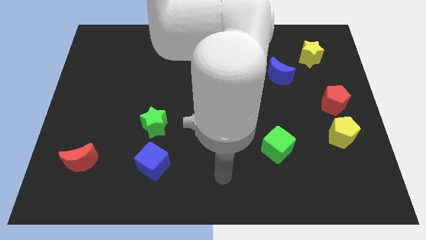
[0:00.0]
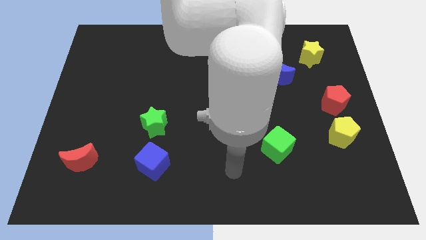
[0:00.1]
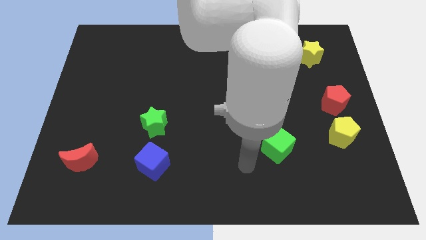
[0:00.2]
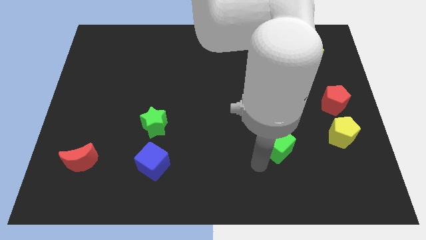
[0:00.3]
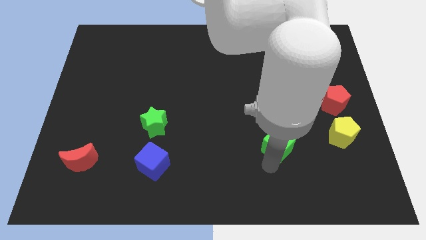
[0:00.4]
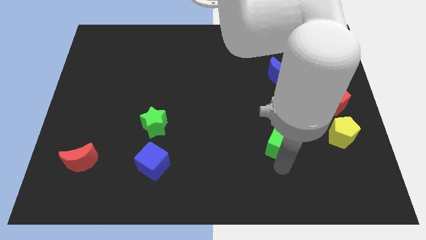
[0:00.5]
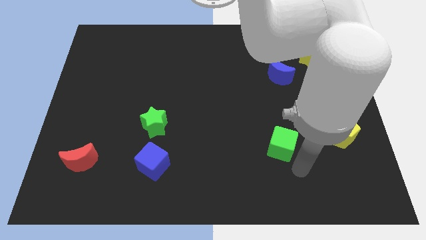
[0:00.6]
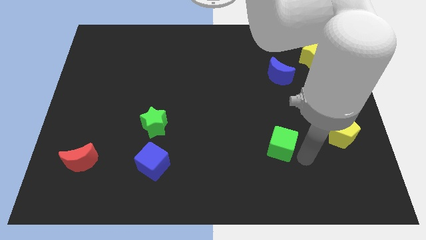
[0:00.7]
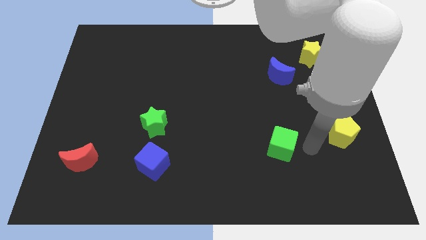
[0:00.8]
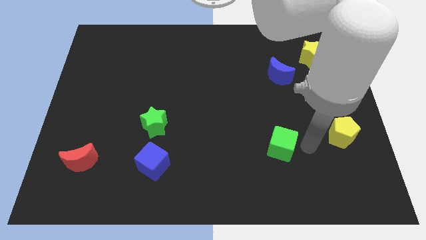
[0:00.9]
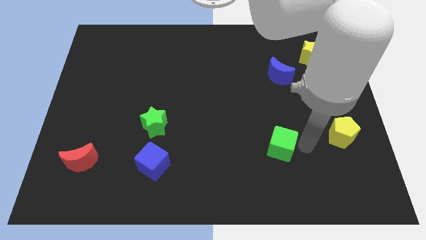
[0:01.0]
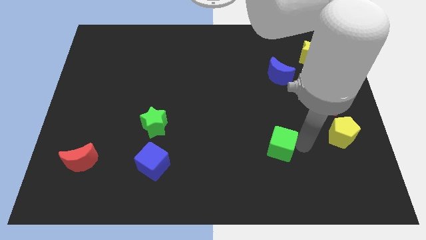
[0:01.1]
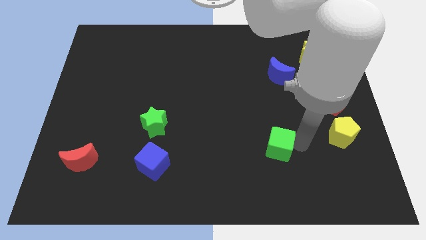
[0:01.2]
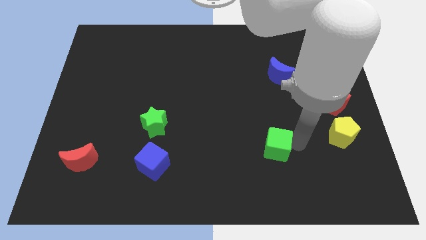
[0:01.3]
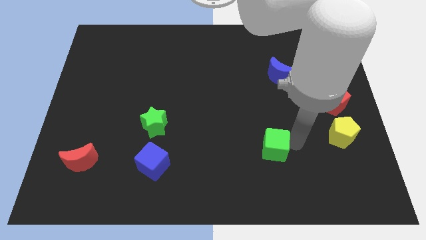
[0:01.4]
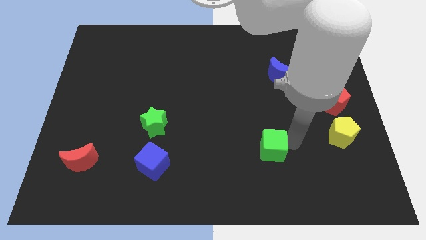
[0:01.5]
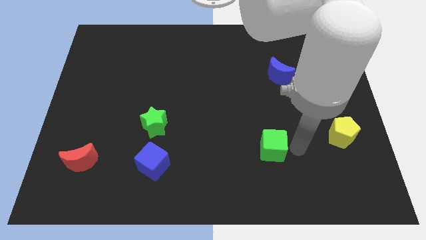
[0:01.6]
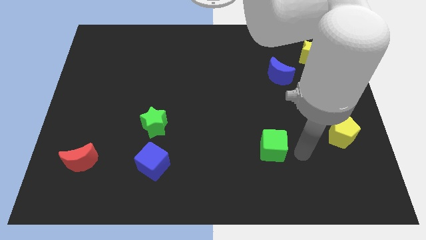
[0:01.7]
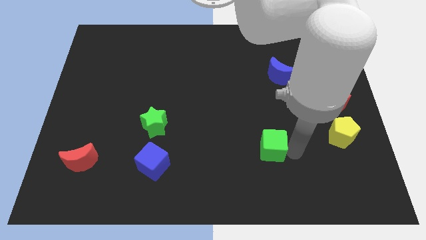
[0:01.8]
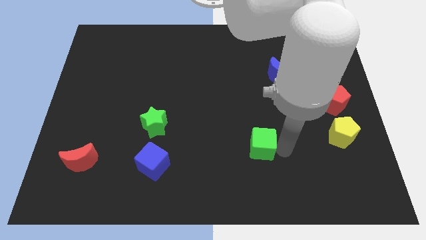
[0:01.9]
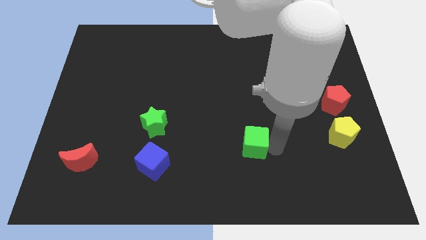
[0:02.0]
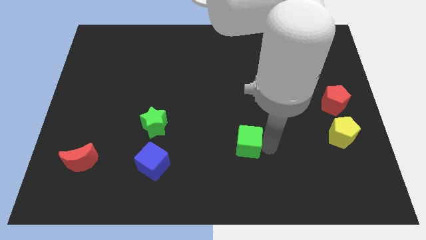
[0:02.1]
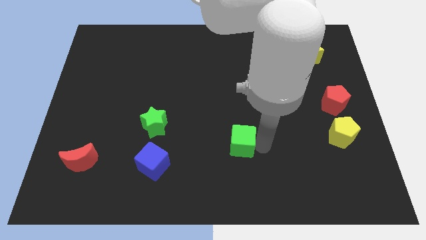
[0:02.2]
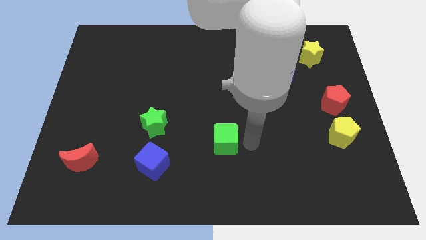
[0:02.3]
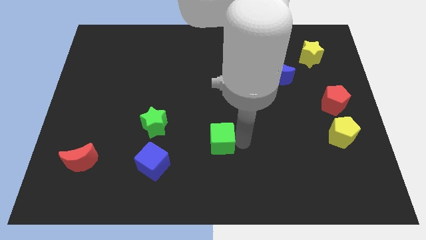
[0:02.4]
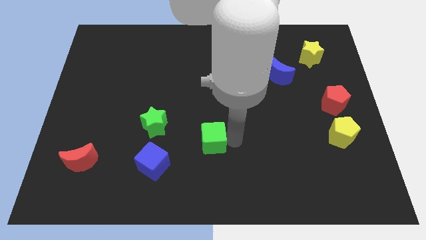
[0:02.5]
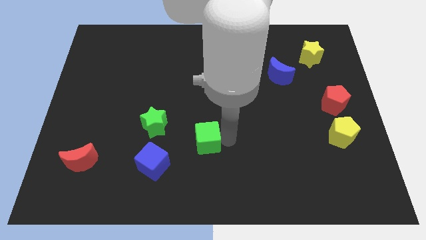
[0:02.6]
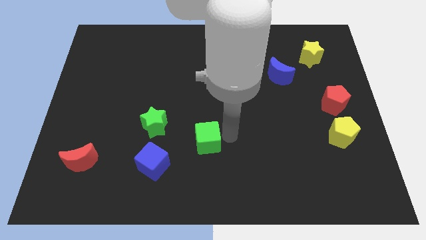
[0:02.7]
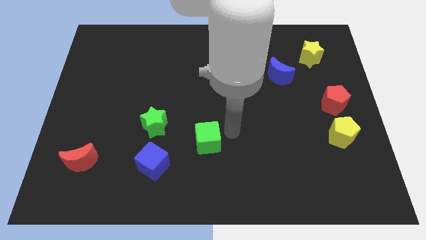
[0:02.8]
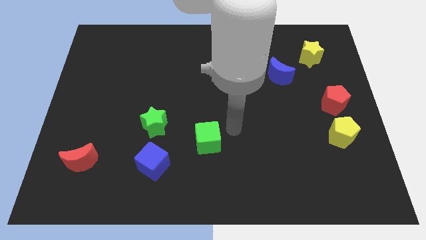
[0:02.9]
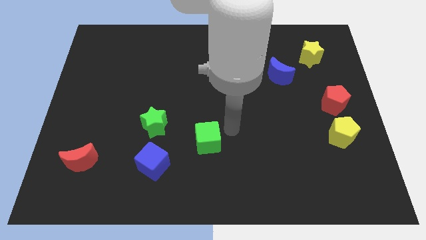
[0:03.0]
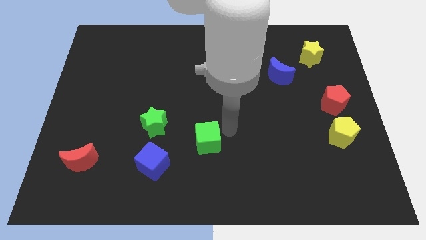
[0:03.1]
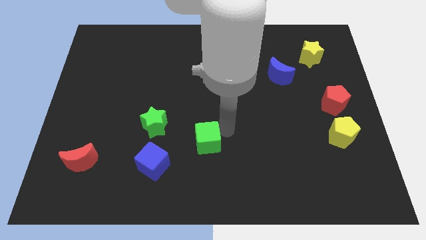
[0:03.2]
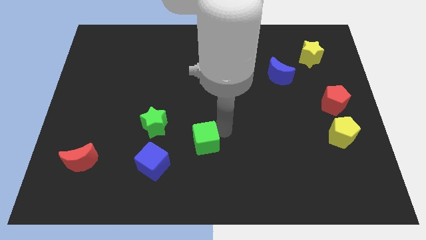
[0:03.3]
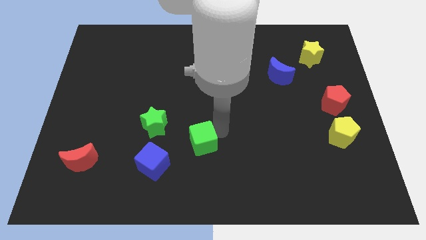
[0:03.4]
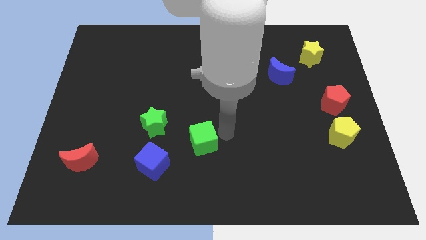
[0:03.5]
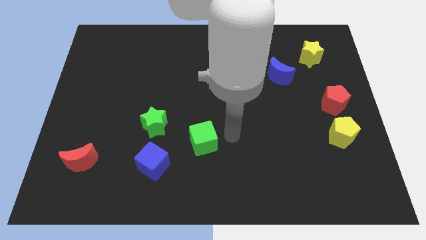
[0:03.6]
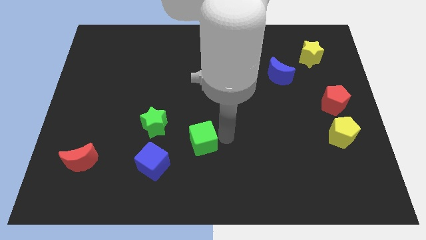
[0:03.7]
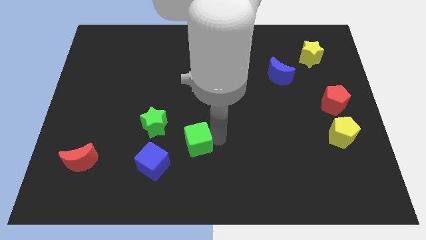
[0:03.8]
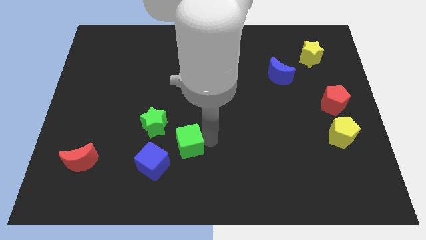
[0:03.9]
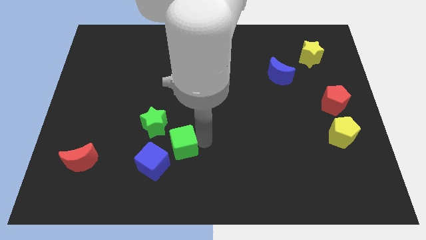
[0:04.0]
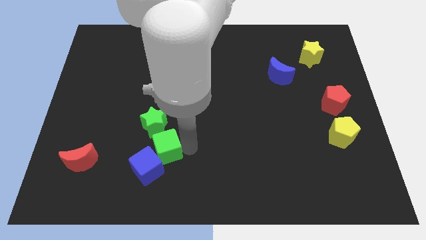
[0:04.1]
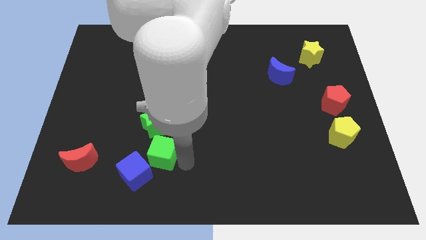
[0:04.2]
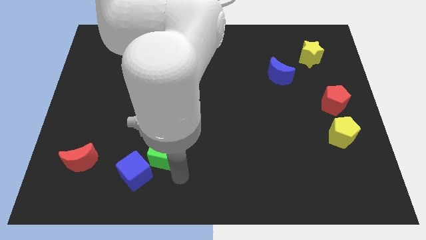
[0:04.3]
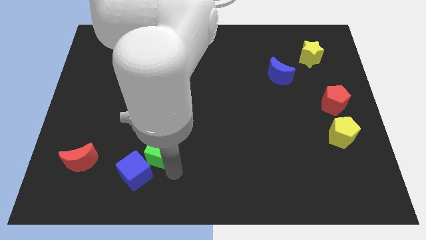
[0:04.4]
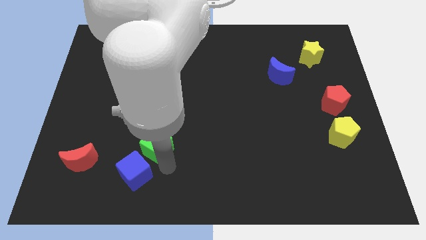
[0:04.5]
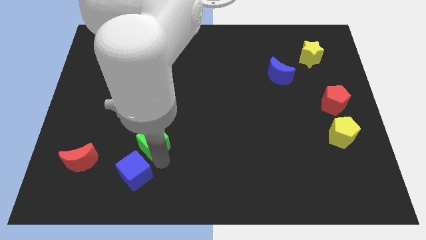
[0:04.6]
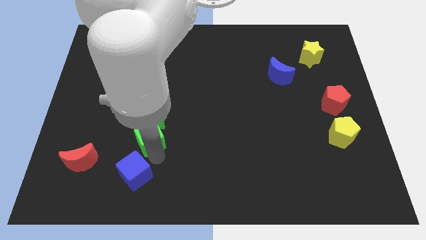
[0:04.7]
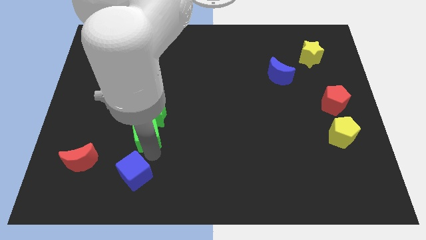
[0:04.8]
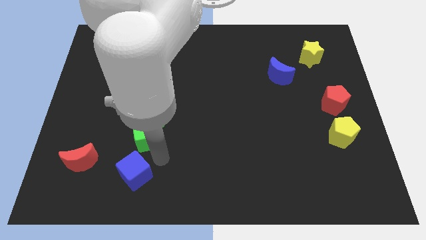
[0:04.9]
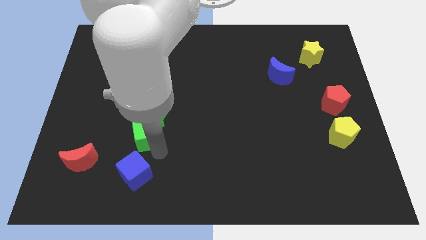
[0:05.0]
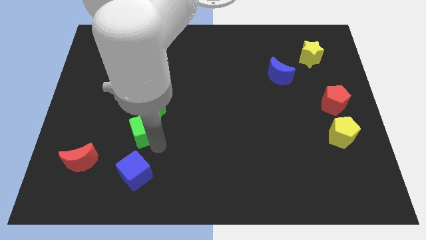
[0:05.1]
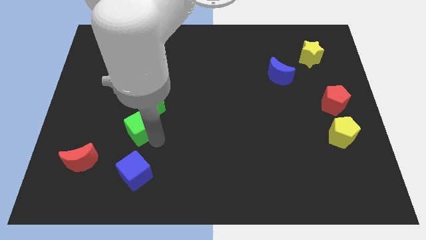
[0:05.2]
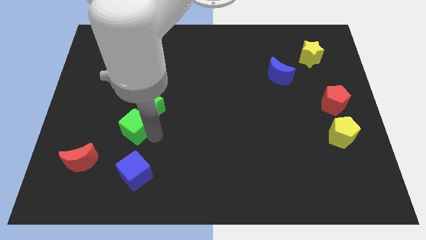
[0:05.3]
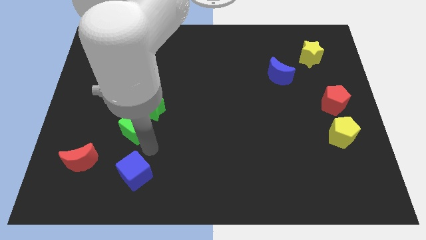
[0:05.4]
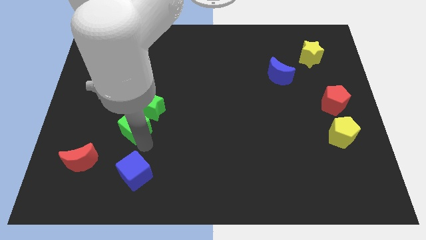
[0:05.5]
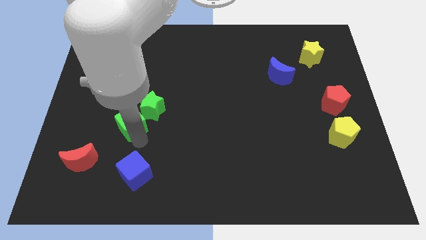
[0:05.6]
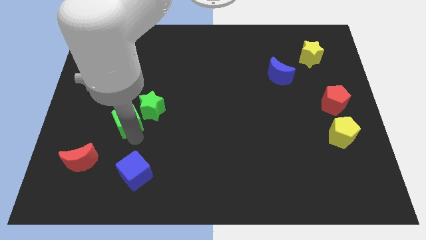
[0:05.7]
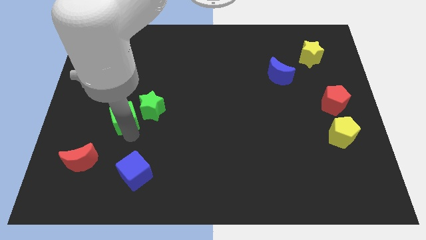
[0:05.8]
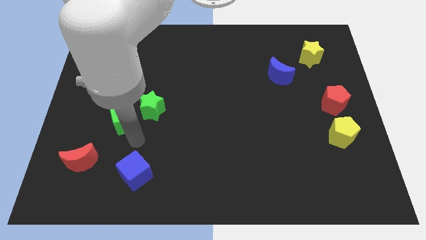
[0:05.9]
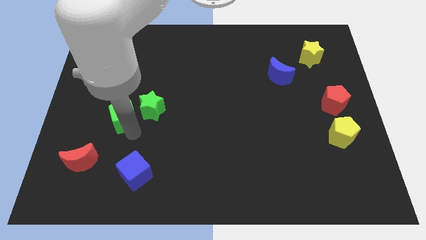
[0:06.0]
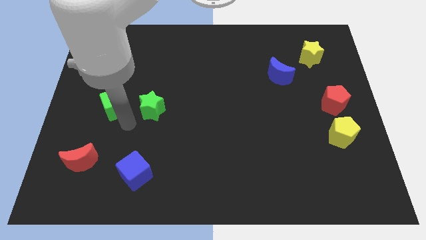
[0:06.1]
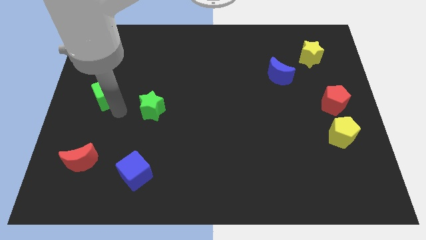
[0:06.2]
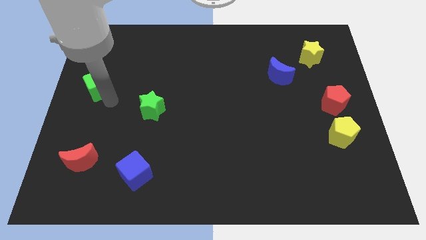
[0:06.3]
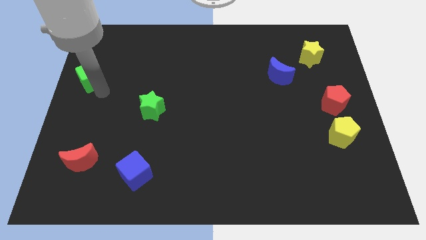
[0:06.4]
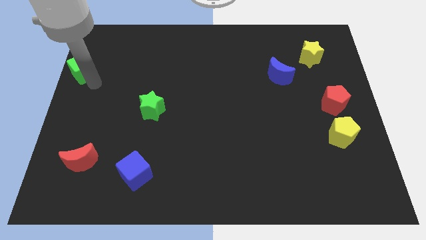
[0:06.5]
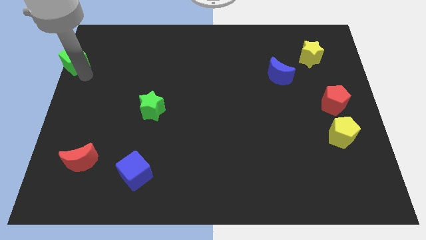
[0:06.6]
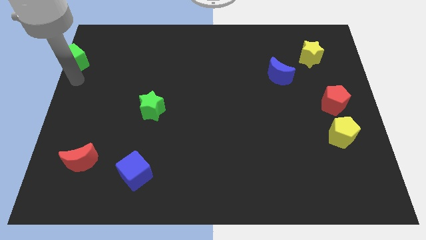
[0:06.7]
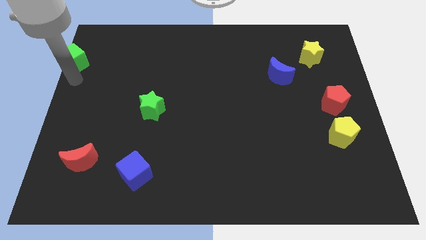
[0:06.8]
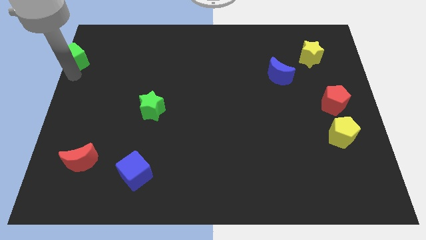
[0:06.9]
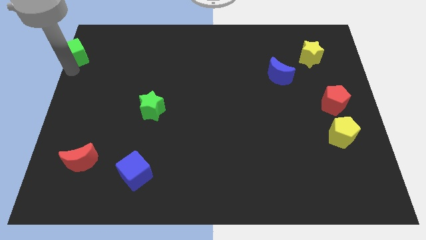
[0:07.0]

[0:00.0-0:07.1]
push the green cube to the top left corner

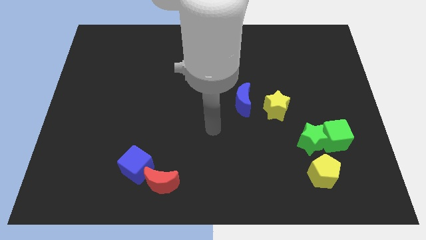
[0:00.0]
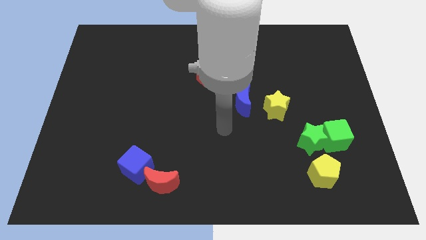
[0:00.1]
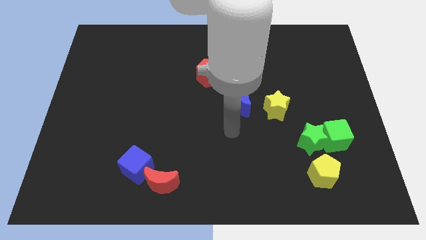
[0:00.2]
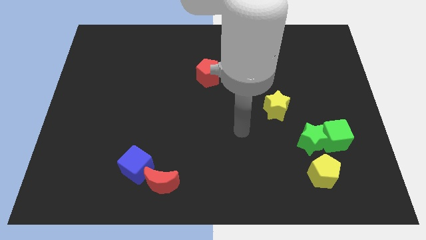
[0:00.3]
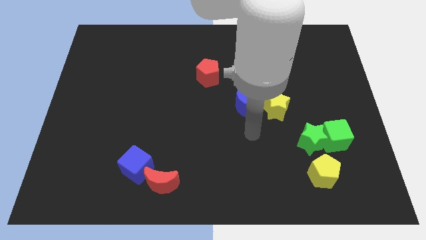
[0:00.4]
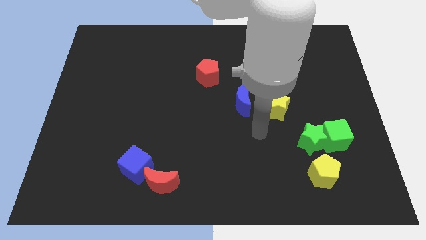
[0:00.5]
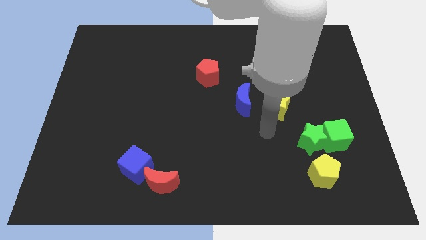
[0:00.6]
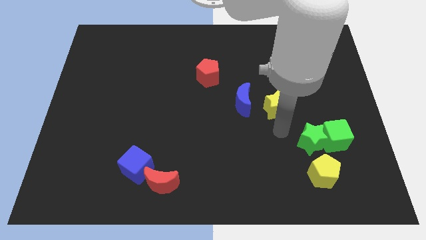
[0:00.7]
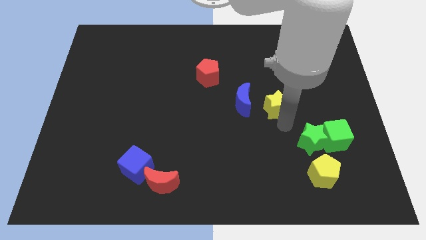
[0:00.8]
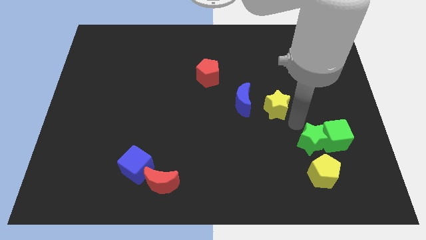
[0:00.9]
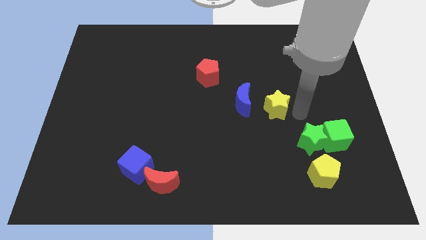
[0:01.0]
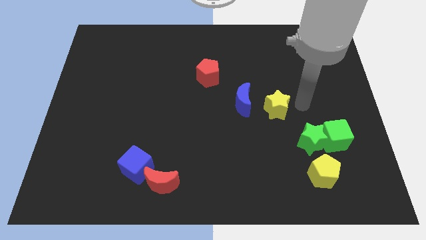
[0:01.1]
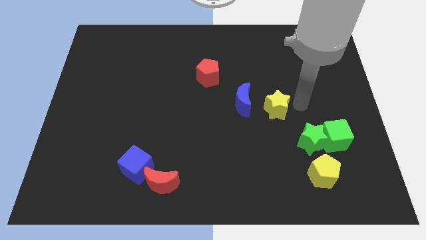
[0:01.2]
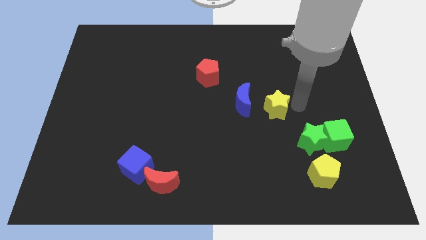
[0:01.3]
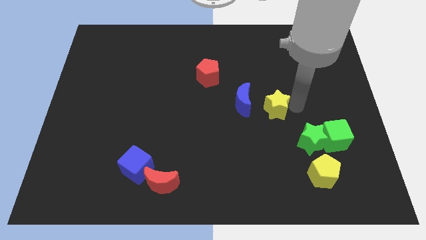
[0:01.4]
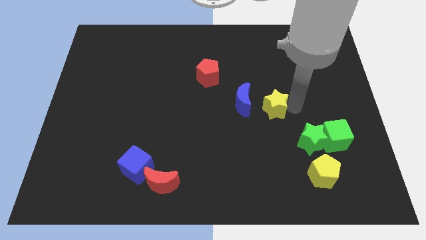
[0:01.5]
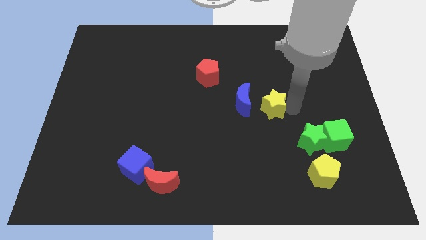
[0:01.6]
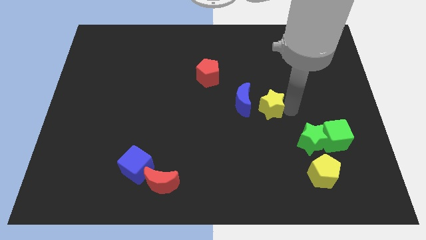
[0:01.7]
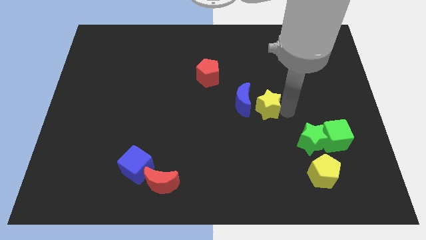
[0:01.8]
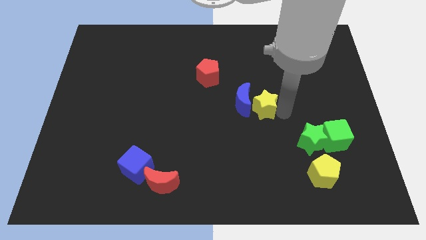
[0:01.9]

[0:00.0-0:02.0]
put the yellow star to the center
